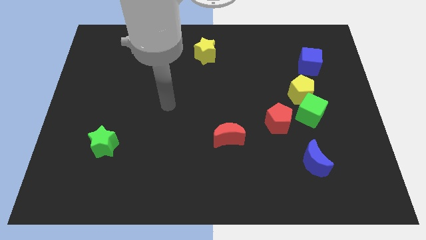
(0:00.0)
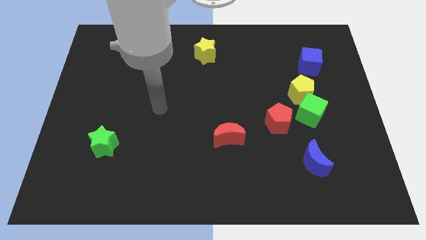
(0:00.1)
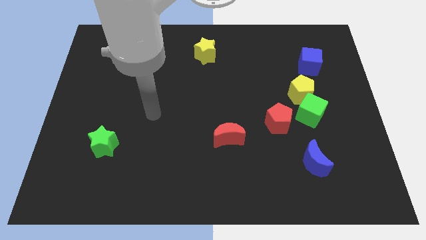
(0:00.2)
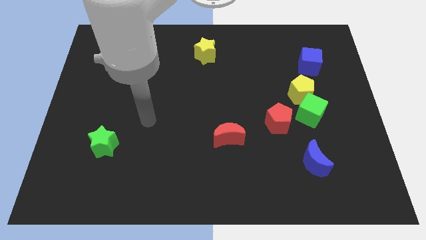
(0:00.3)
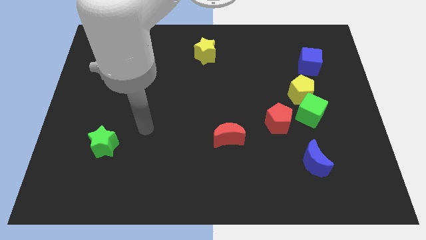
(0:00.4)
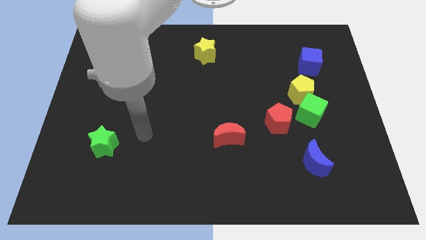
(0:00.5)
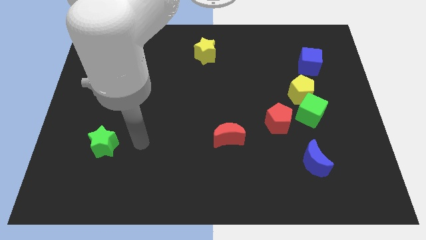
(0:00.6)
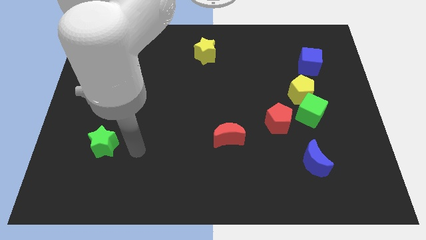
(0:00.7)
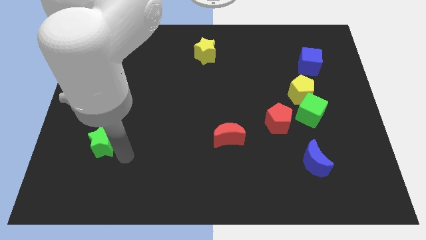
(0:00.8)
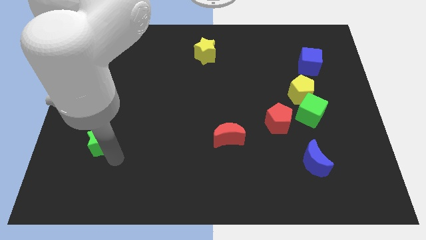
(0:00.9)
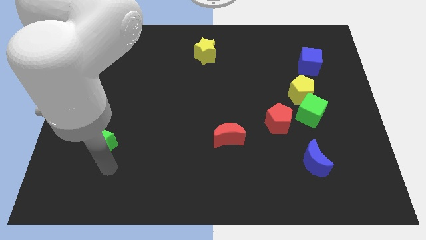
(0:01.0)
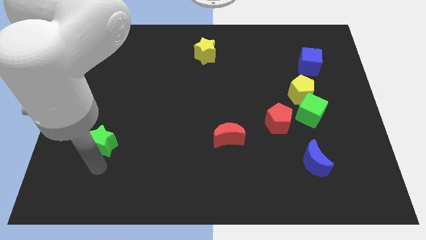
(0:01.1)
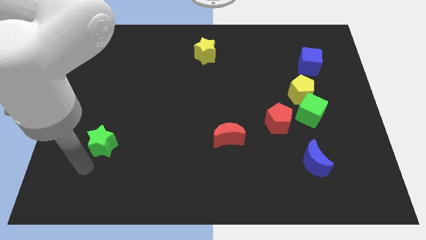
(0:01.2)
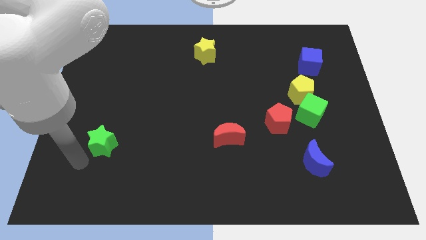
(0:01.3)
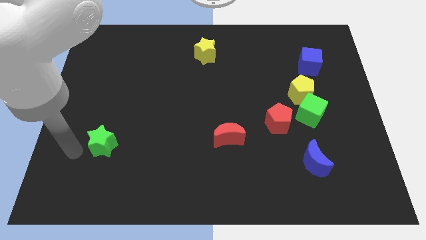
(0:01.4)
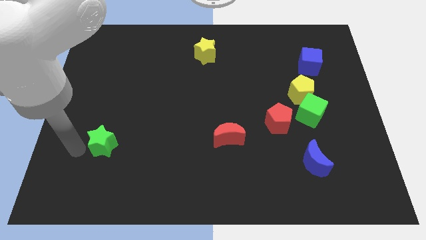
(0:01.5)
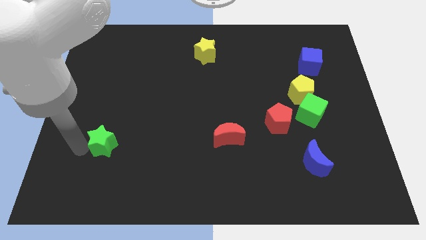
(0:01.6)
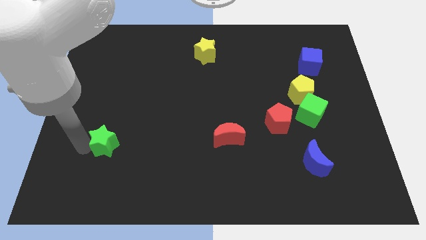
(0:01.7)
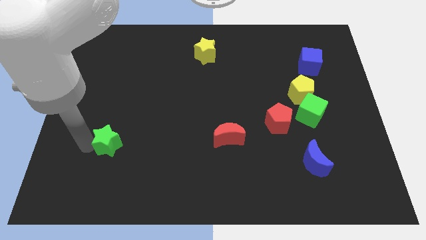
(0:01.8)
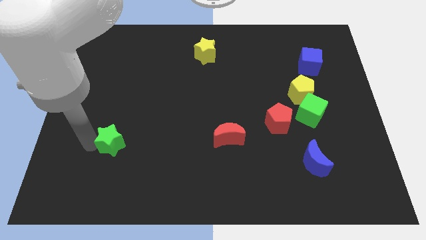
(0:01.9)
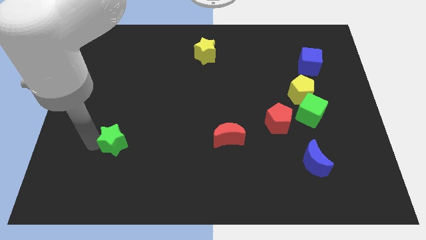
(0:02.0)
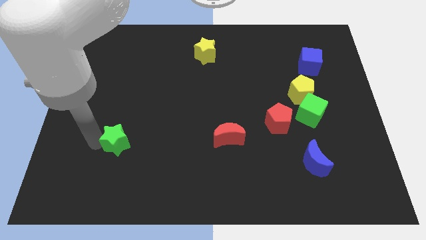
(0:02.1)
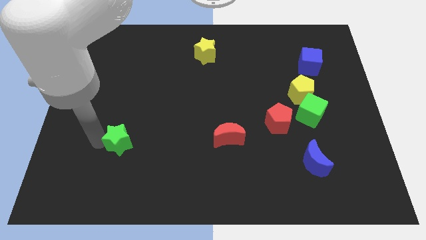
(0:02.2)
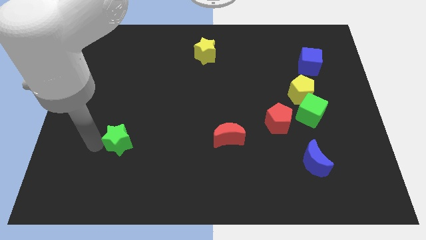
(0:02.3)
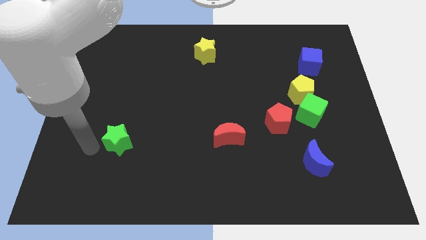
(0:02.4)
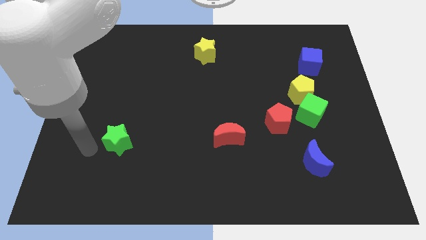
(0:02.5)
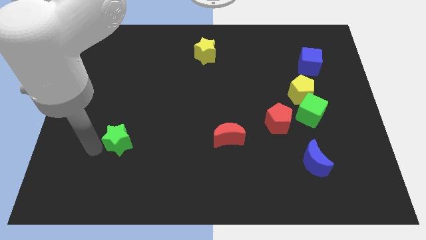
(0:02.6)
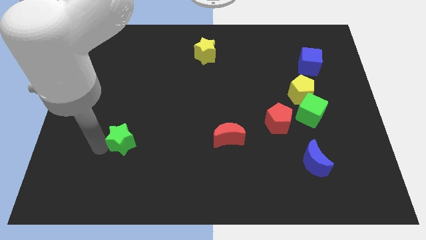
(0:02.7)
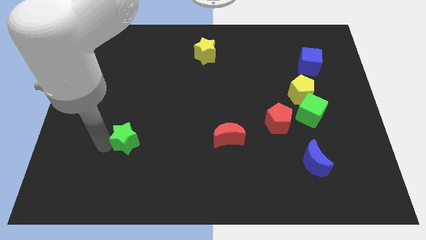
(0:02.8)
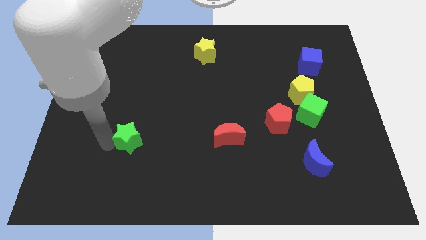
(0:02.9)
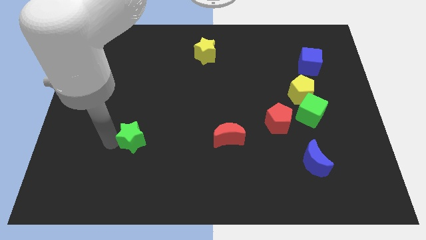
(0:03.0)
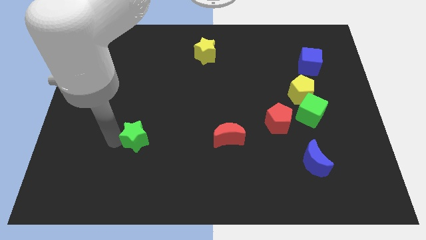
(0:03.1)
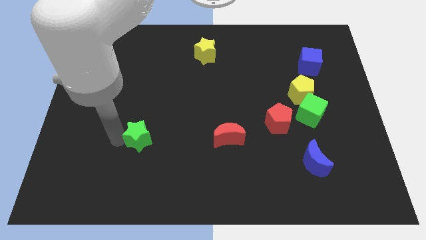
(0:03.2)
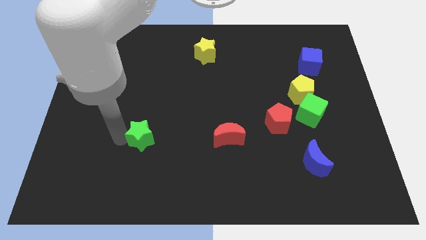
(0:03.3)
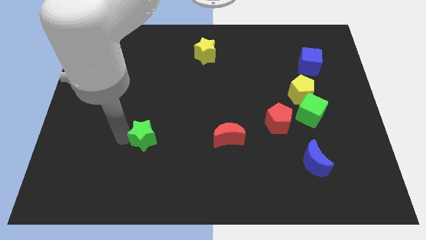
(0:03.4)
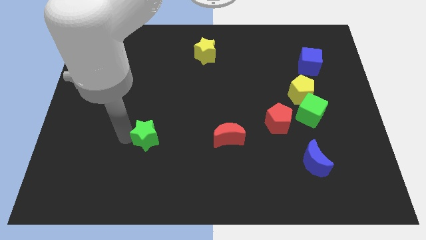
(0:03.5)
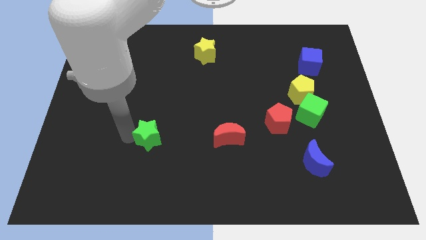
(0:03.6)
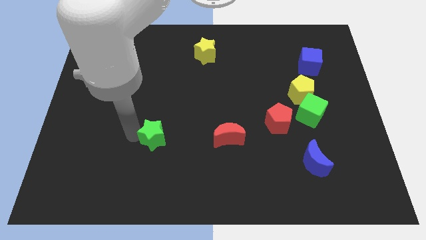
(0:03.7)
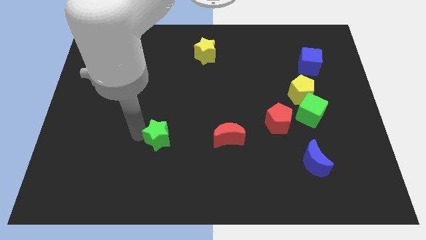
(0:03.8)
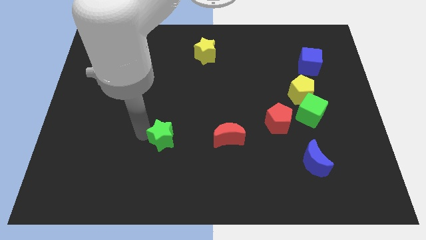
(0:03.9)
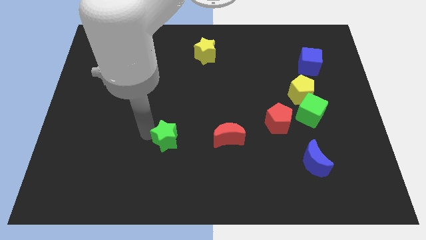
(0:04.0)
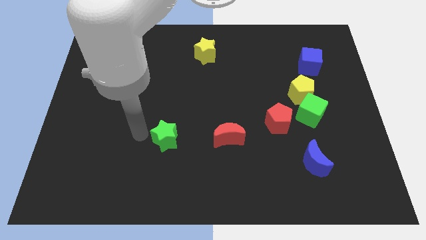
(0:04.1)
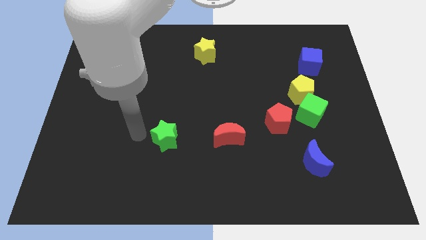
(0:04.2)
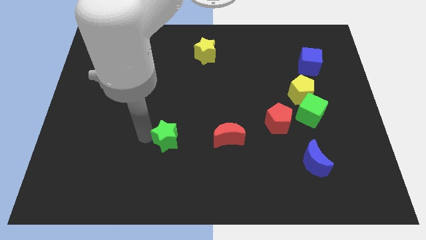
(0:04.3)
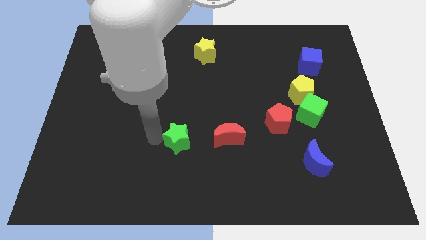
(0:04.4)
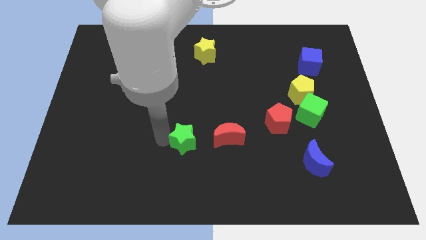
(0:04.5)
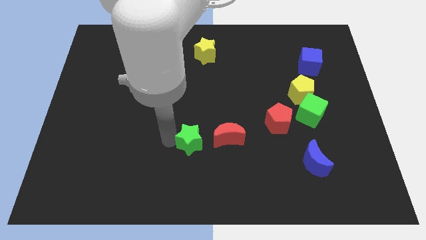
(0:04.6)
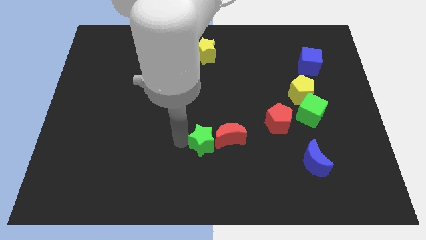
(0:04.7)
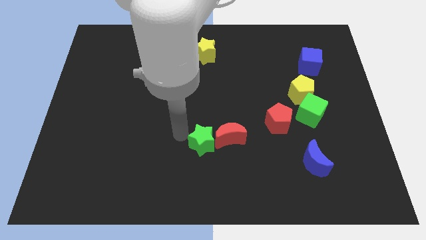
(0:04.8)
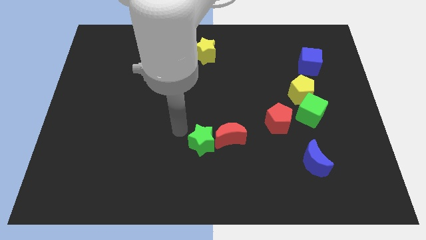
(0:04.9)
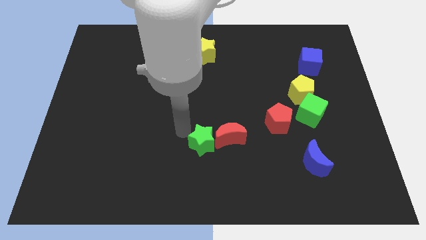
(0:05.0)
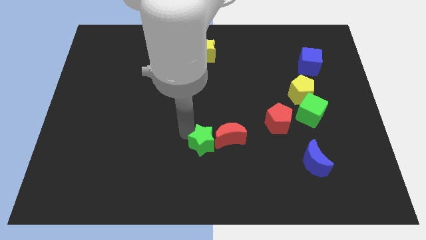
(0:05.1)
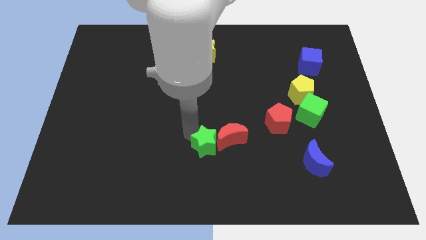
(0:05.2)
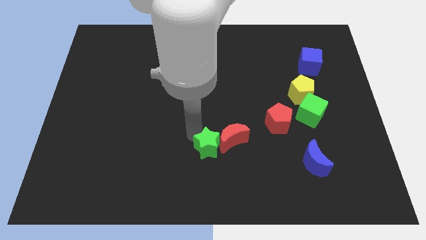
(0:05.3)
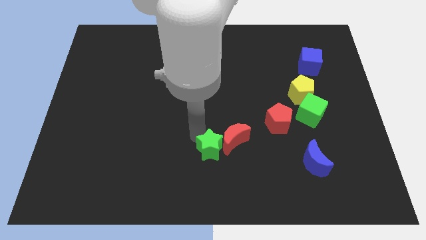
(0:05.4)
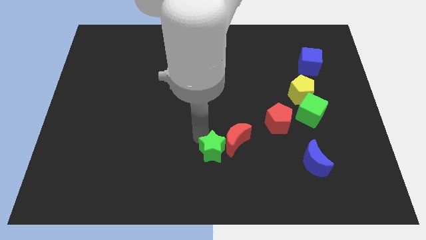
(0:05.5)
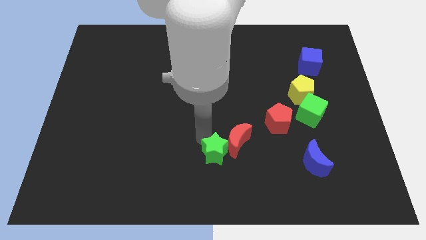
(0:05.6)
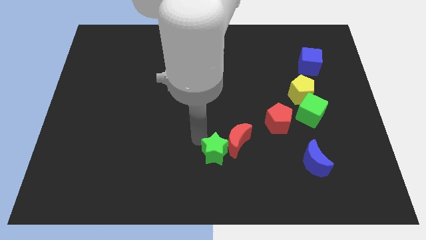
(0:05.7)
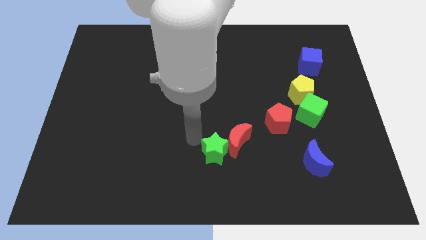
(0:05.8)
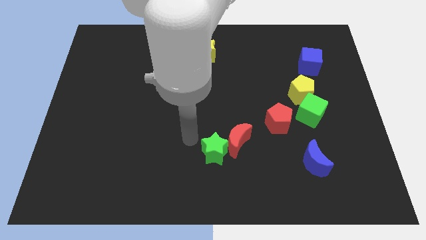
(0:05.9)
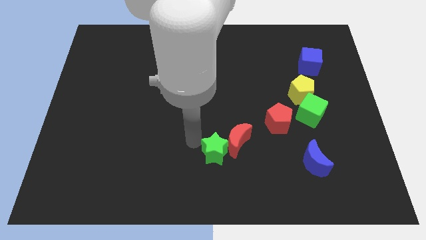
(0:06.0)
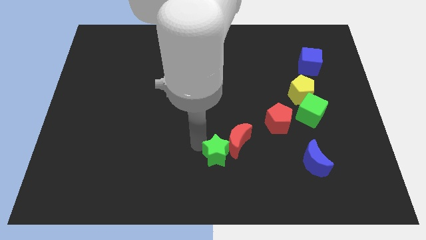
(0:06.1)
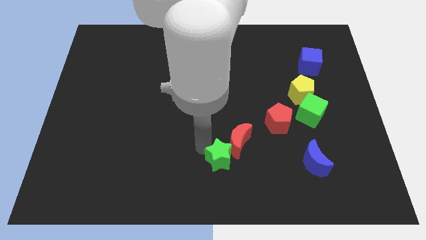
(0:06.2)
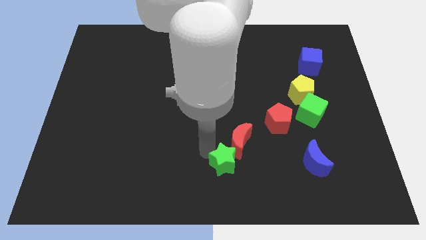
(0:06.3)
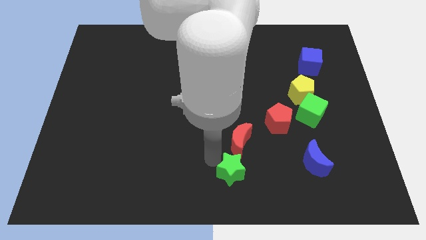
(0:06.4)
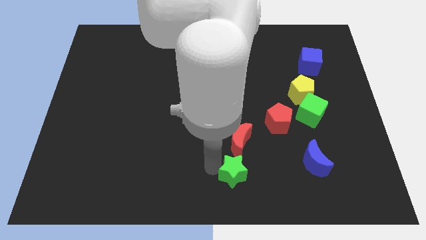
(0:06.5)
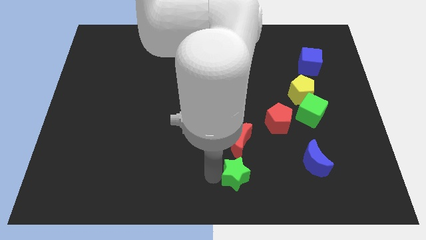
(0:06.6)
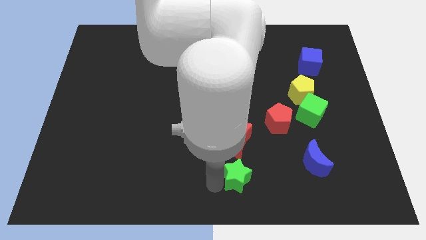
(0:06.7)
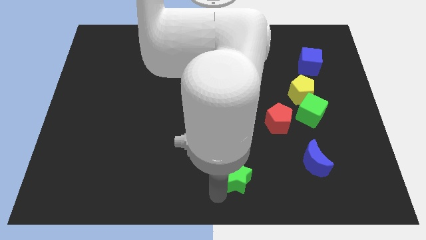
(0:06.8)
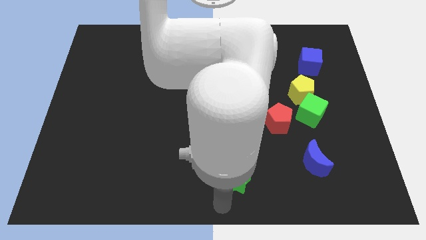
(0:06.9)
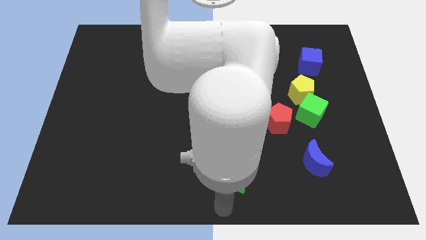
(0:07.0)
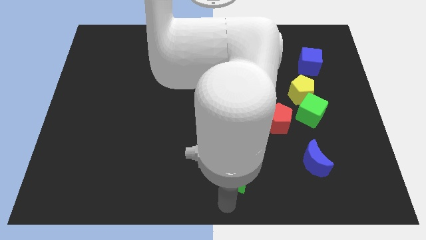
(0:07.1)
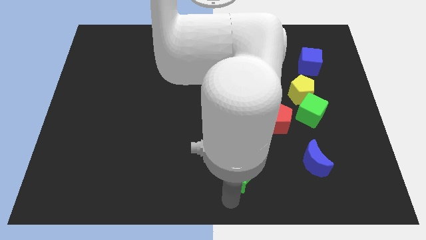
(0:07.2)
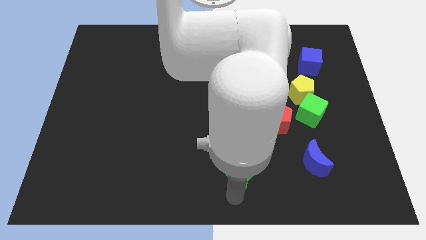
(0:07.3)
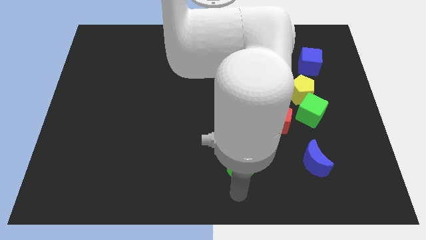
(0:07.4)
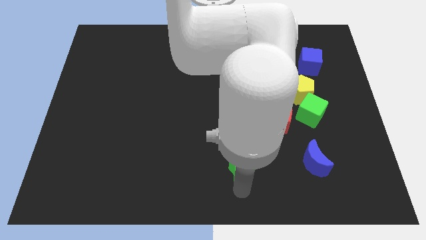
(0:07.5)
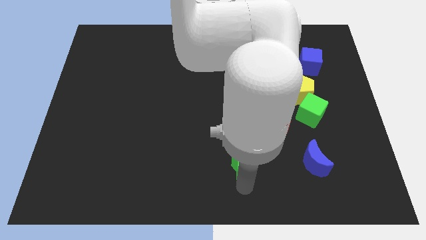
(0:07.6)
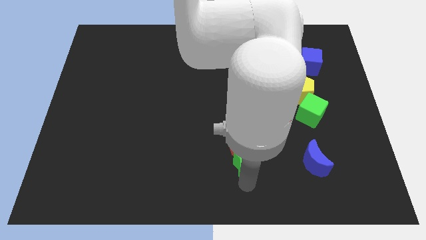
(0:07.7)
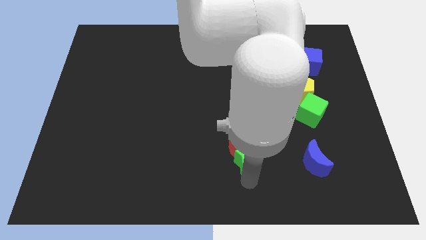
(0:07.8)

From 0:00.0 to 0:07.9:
slide the green star to the bottom left of the red pentagon
